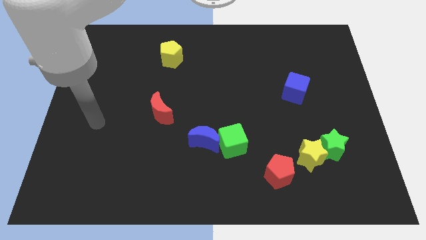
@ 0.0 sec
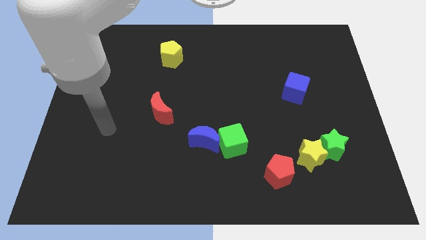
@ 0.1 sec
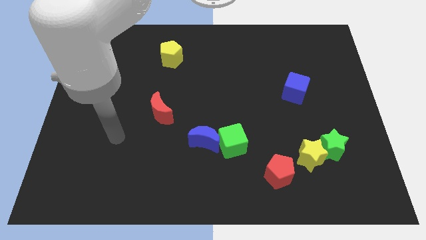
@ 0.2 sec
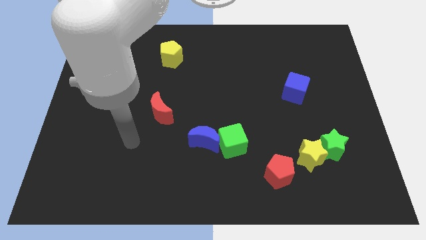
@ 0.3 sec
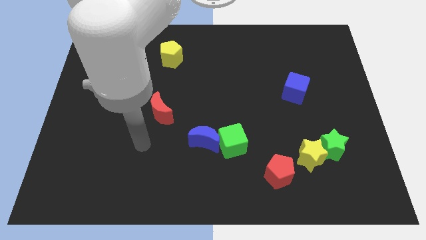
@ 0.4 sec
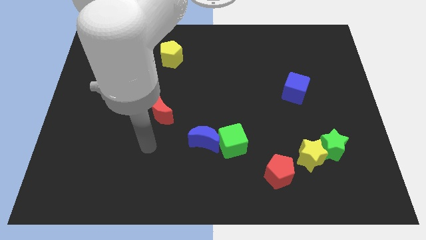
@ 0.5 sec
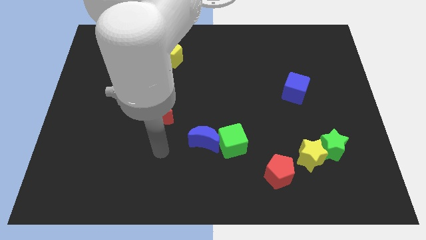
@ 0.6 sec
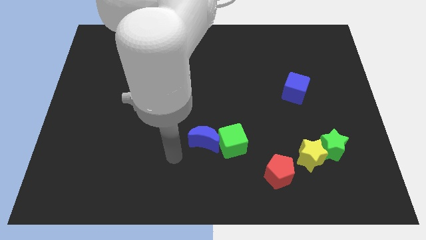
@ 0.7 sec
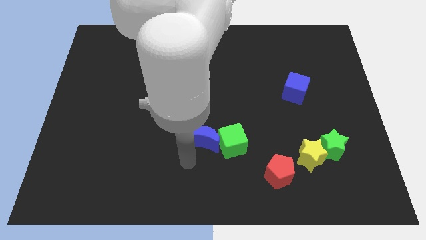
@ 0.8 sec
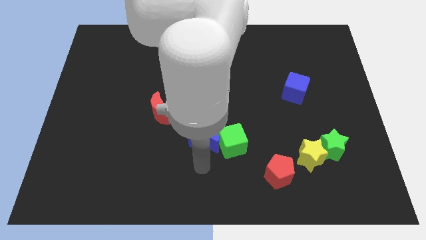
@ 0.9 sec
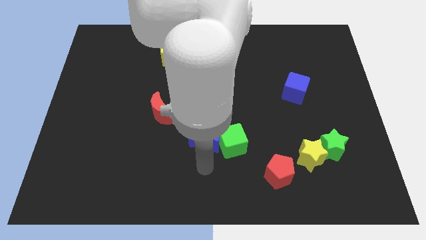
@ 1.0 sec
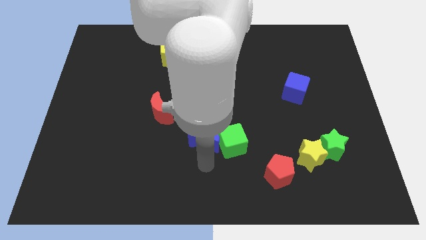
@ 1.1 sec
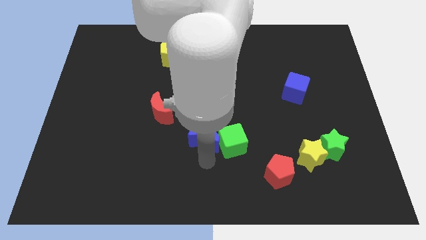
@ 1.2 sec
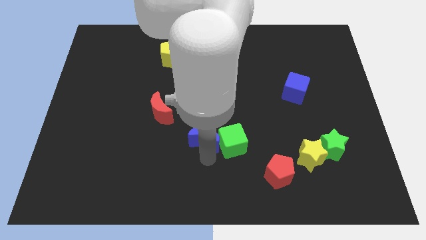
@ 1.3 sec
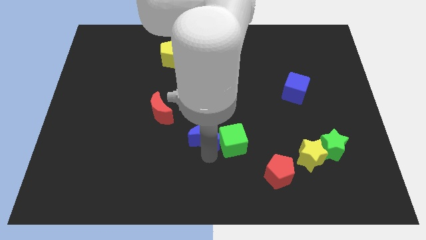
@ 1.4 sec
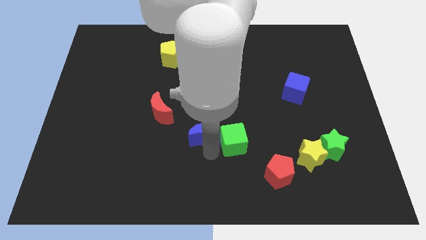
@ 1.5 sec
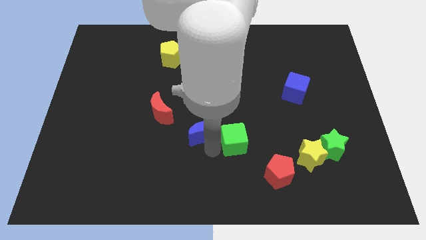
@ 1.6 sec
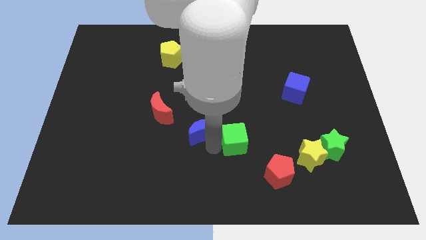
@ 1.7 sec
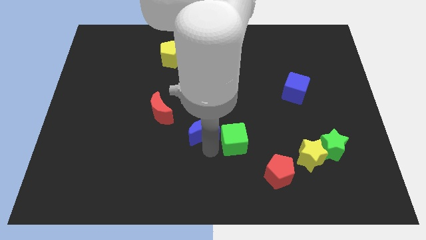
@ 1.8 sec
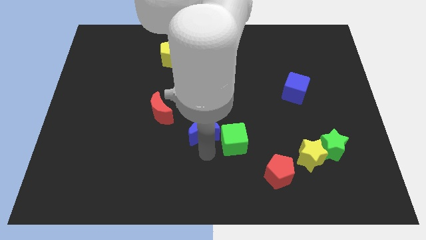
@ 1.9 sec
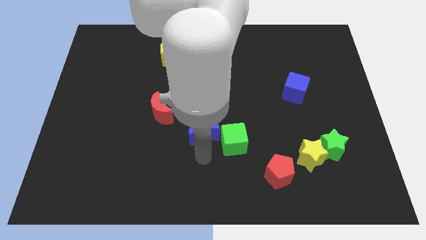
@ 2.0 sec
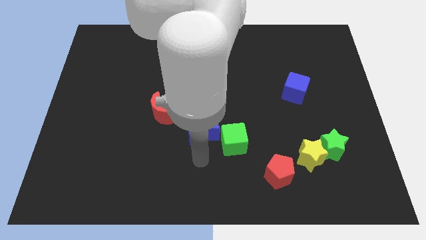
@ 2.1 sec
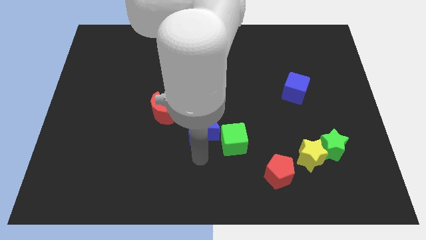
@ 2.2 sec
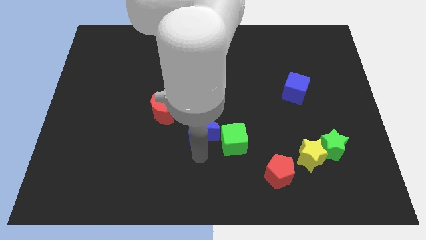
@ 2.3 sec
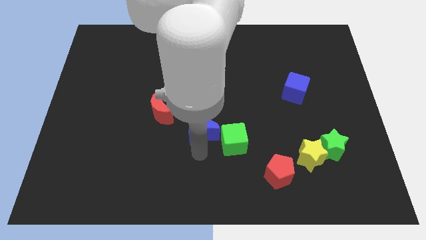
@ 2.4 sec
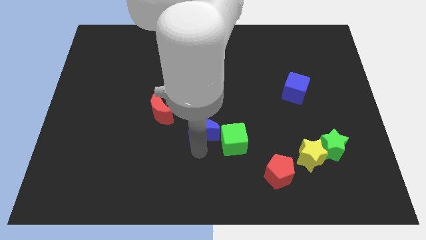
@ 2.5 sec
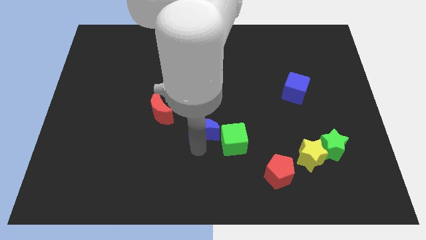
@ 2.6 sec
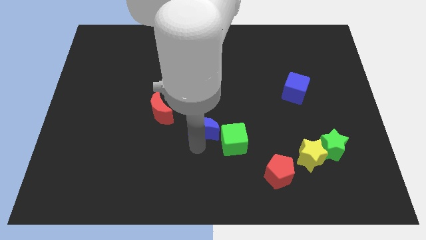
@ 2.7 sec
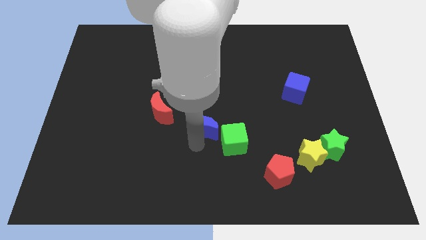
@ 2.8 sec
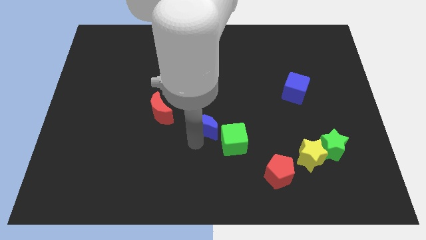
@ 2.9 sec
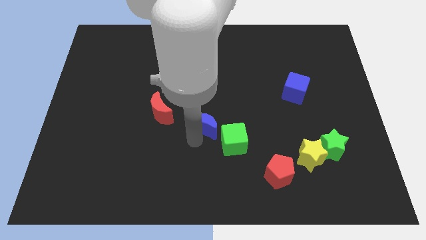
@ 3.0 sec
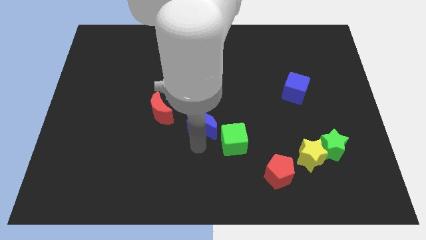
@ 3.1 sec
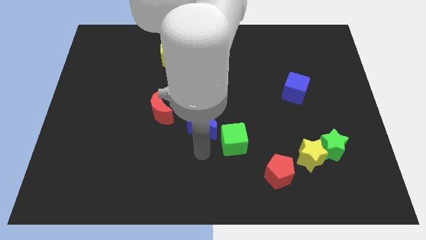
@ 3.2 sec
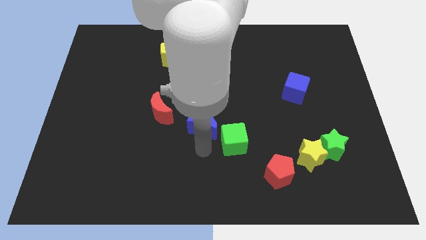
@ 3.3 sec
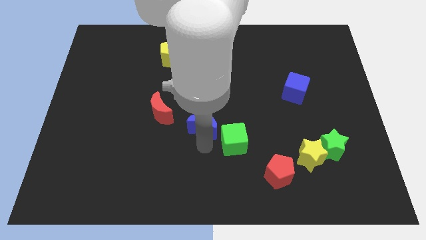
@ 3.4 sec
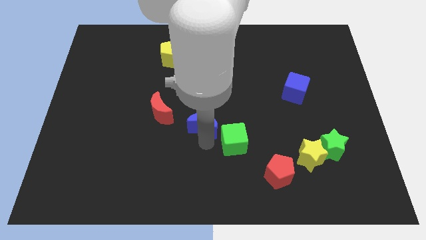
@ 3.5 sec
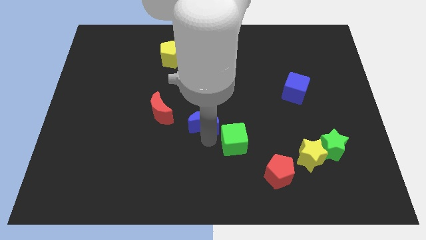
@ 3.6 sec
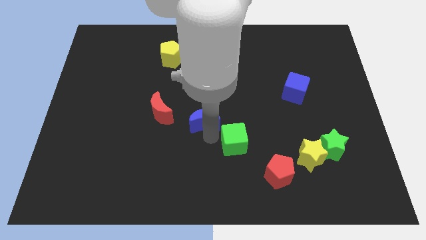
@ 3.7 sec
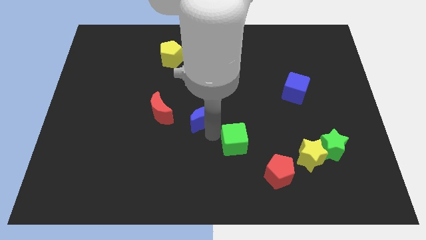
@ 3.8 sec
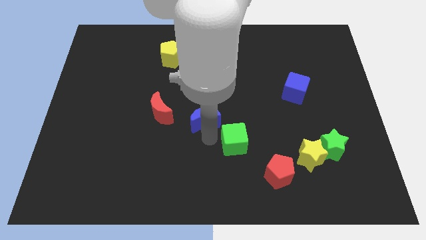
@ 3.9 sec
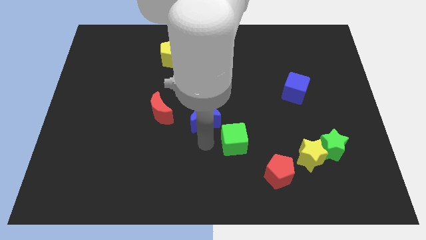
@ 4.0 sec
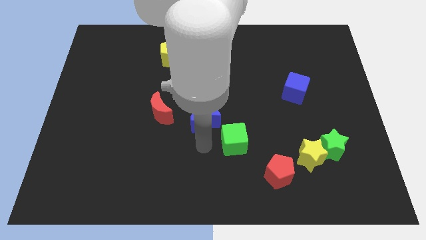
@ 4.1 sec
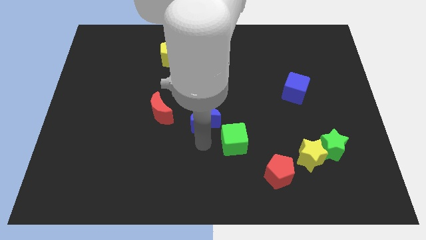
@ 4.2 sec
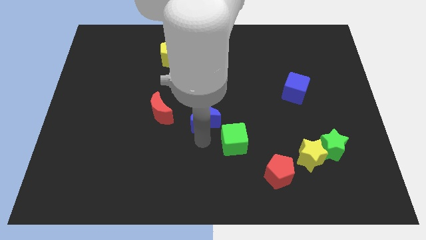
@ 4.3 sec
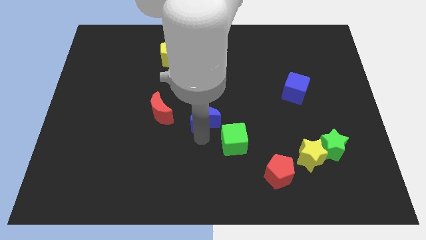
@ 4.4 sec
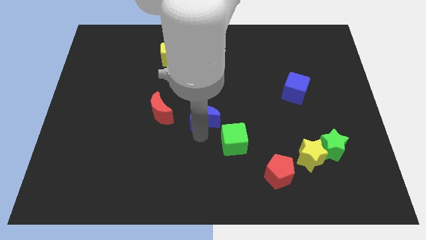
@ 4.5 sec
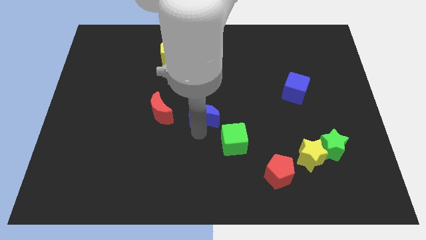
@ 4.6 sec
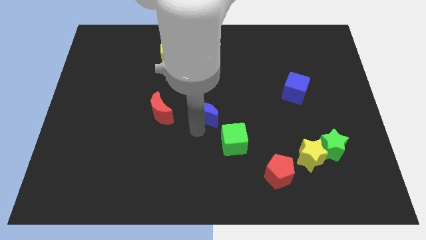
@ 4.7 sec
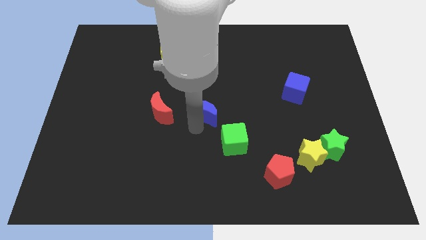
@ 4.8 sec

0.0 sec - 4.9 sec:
slide the blue moon a little bit upwards

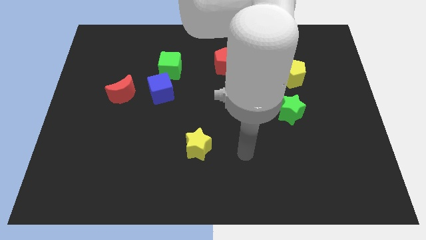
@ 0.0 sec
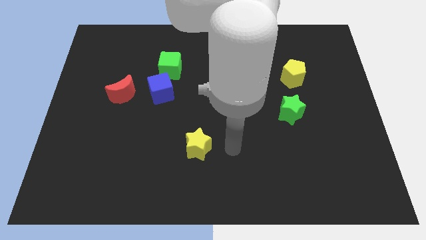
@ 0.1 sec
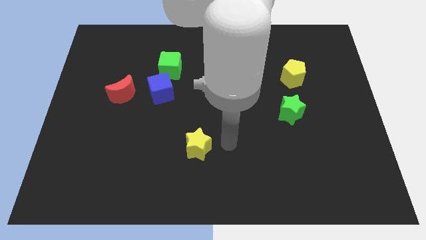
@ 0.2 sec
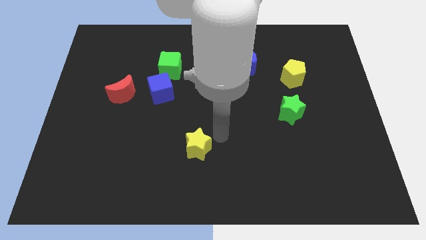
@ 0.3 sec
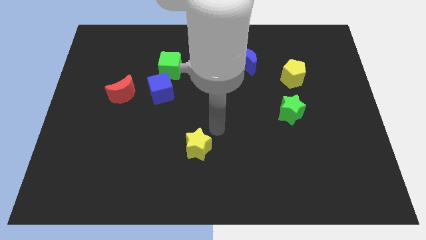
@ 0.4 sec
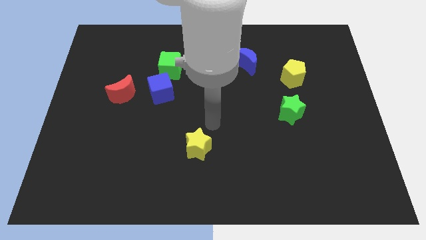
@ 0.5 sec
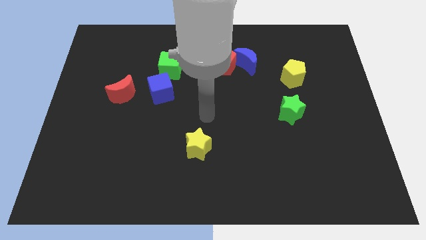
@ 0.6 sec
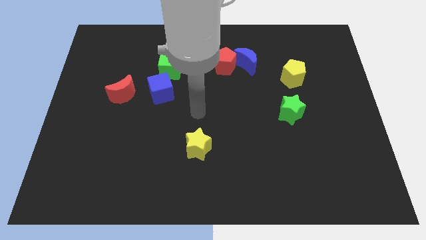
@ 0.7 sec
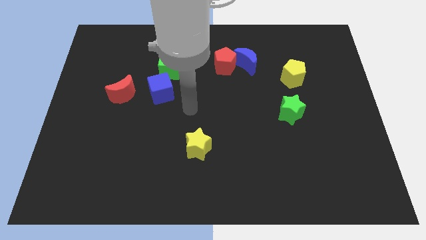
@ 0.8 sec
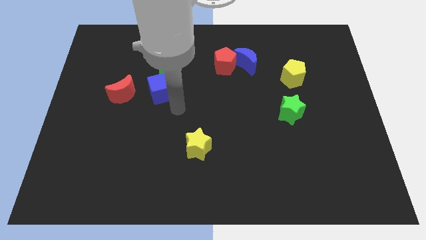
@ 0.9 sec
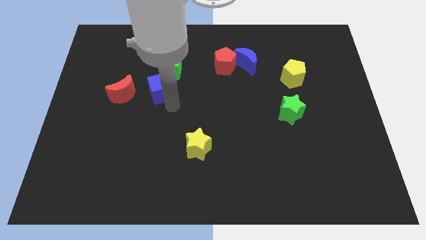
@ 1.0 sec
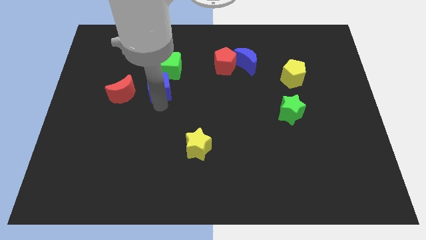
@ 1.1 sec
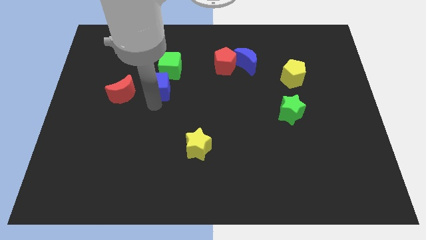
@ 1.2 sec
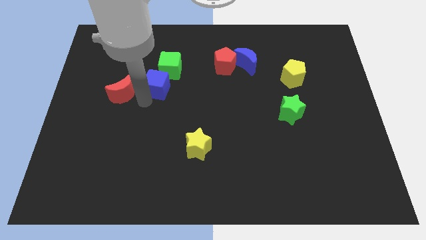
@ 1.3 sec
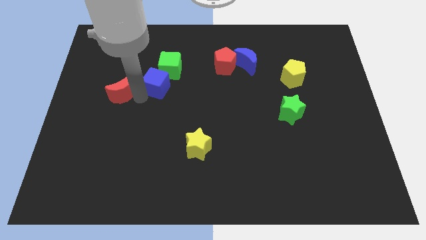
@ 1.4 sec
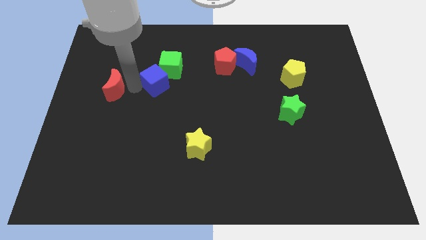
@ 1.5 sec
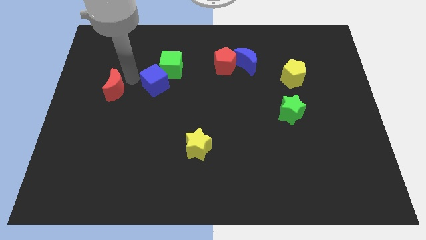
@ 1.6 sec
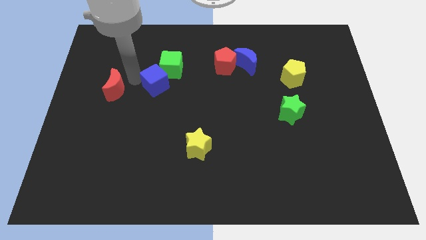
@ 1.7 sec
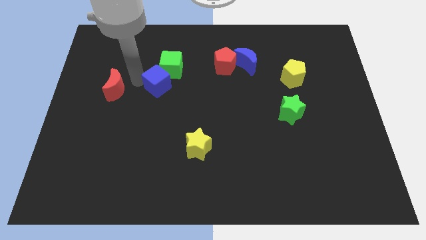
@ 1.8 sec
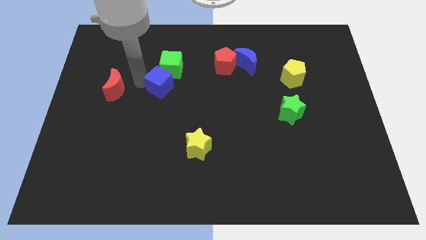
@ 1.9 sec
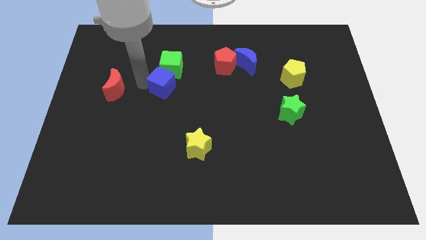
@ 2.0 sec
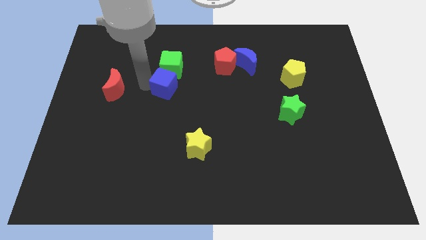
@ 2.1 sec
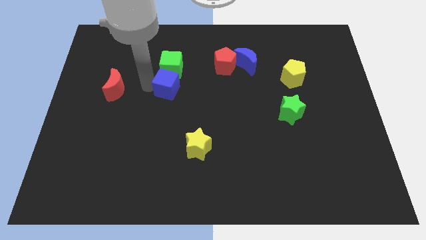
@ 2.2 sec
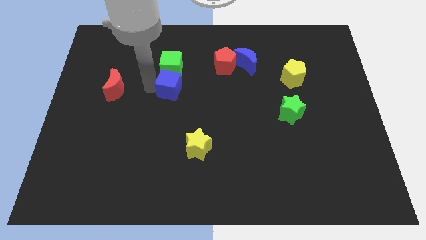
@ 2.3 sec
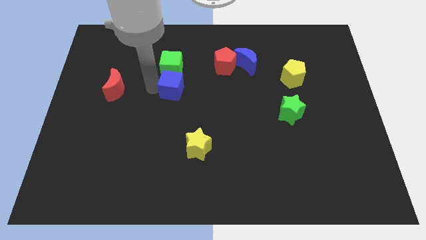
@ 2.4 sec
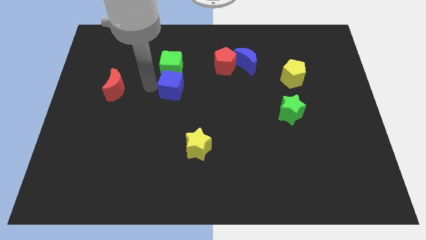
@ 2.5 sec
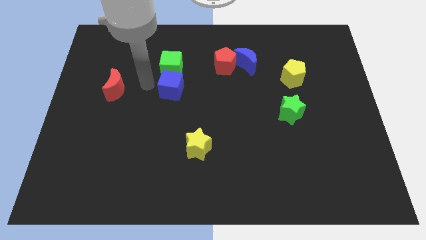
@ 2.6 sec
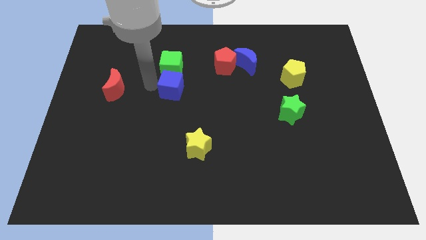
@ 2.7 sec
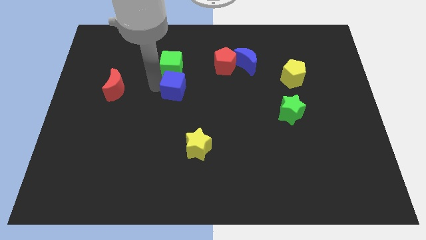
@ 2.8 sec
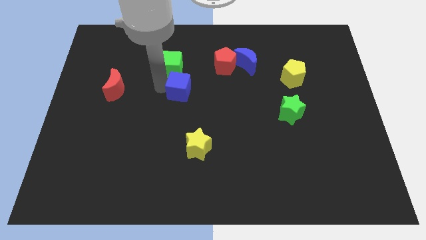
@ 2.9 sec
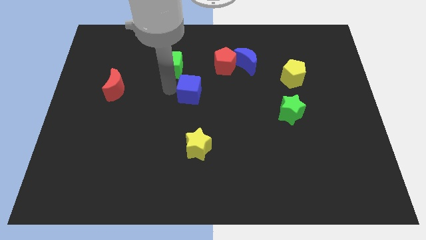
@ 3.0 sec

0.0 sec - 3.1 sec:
slide the blue cube right a little bit

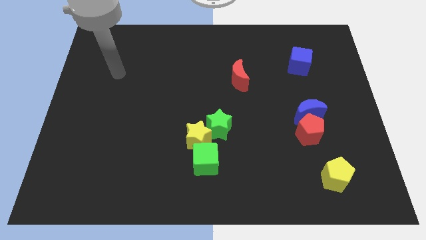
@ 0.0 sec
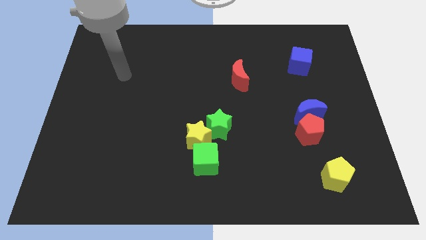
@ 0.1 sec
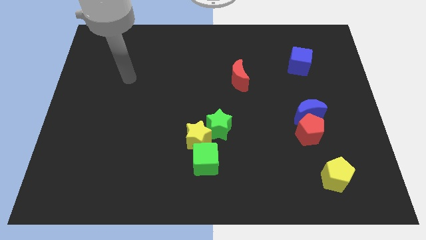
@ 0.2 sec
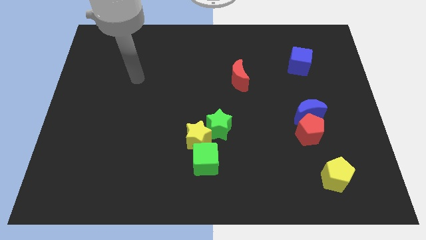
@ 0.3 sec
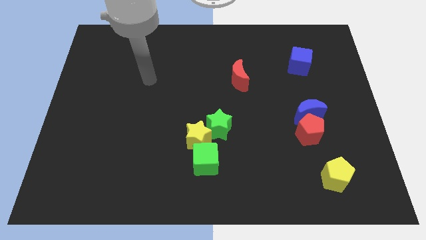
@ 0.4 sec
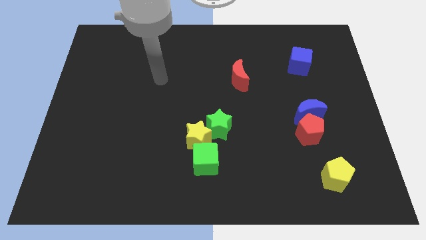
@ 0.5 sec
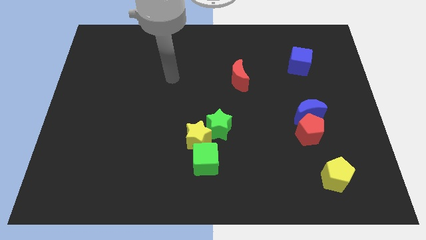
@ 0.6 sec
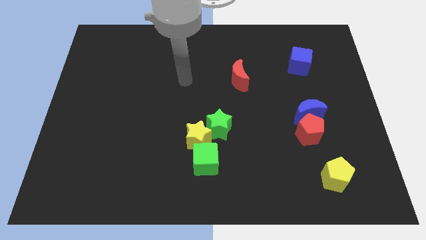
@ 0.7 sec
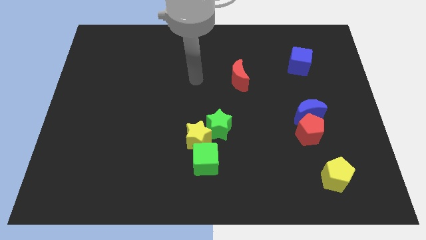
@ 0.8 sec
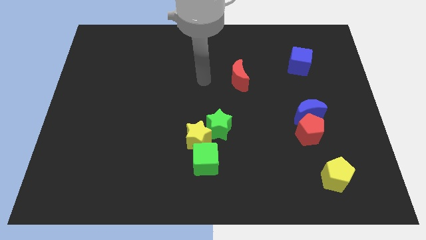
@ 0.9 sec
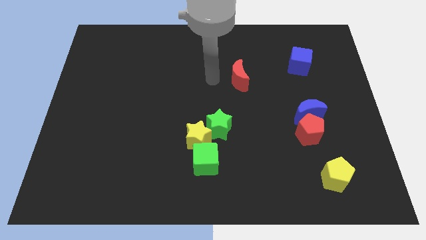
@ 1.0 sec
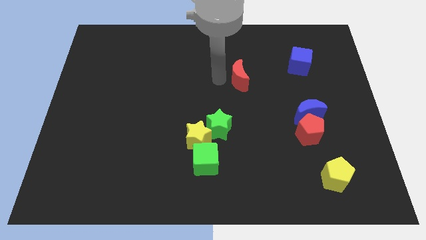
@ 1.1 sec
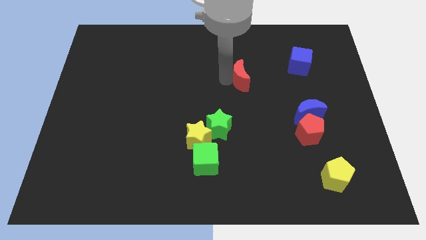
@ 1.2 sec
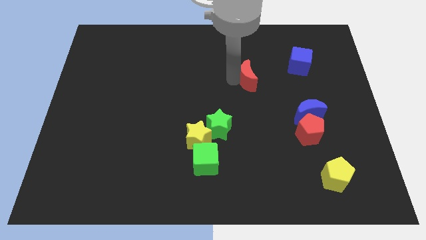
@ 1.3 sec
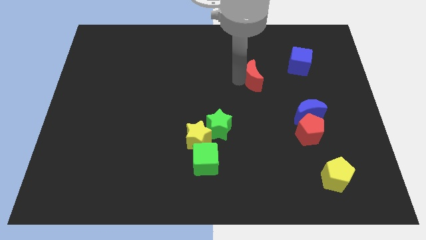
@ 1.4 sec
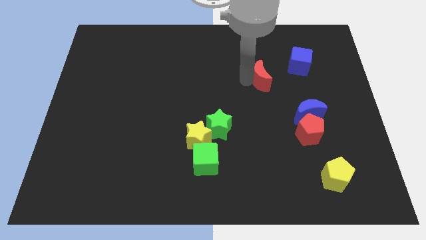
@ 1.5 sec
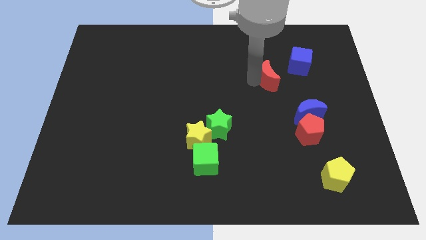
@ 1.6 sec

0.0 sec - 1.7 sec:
push the red moon a little to the right
